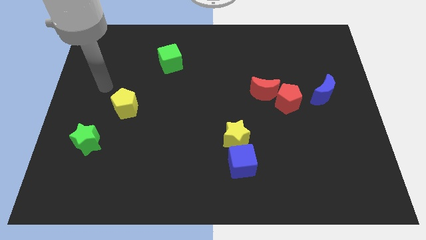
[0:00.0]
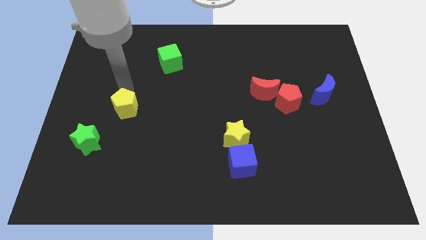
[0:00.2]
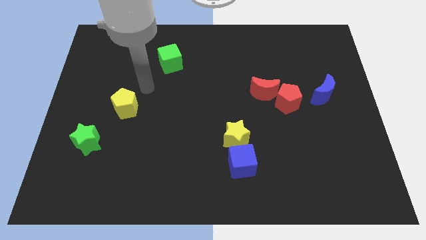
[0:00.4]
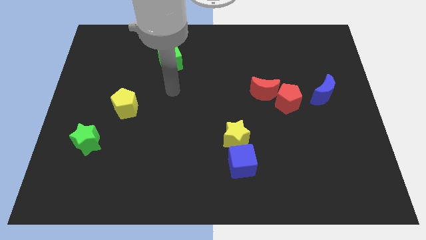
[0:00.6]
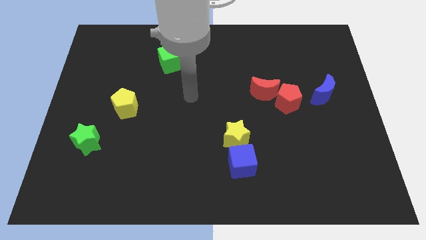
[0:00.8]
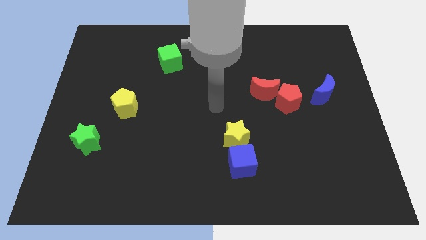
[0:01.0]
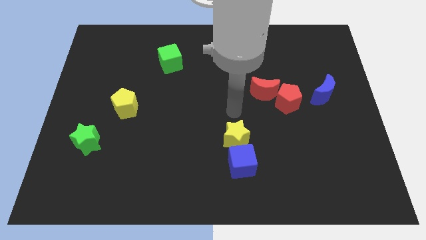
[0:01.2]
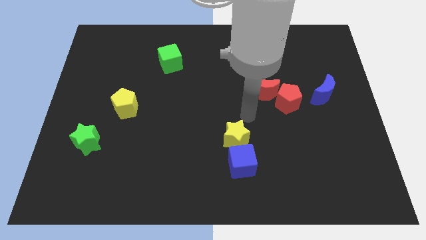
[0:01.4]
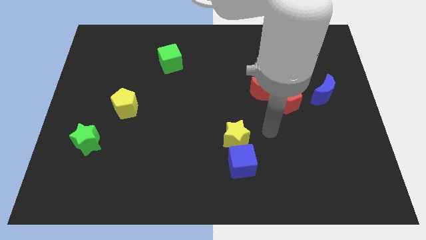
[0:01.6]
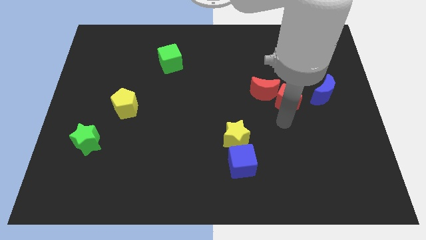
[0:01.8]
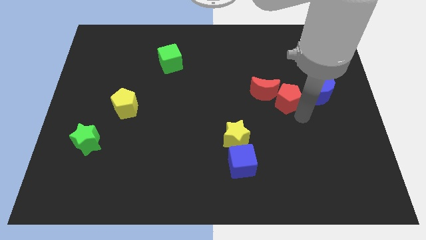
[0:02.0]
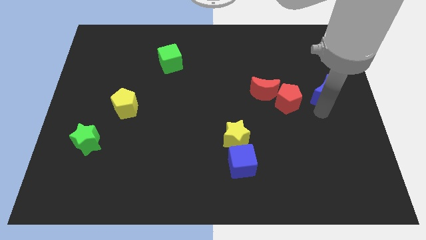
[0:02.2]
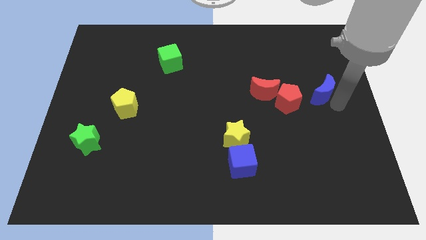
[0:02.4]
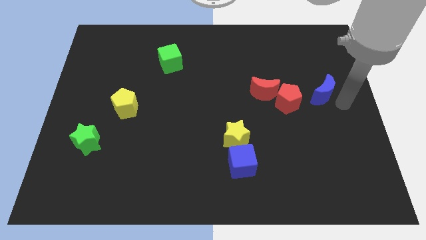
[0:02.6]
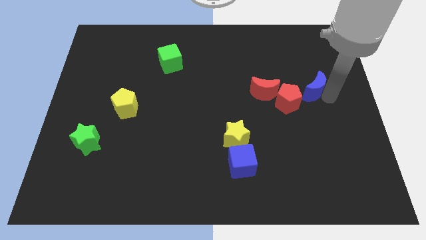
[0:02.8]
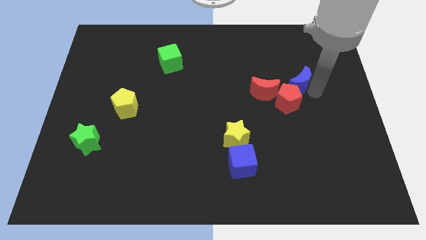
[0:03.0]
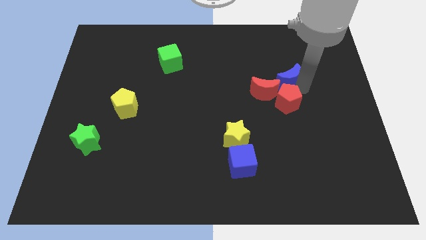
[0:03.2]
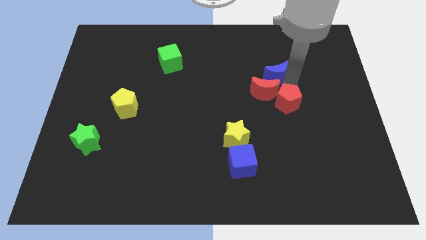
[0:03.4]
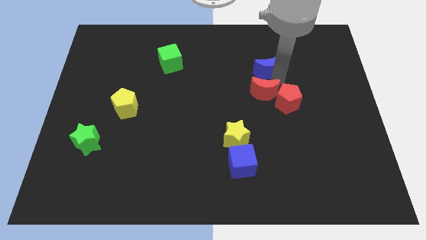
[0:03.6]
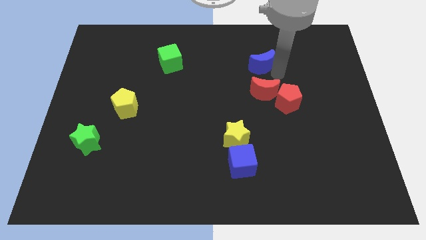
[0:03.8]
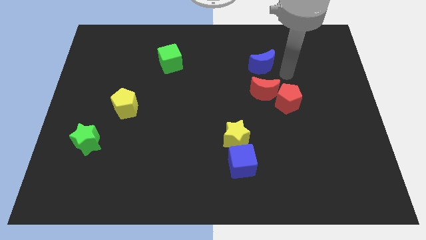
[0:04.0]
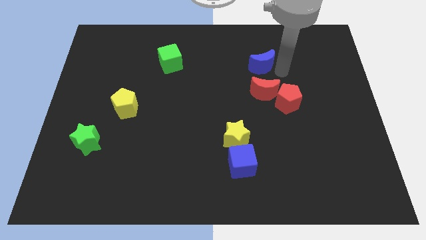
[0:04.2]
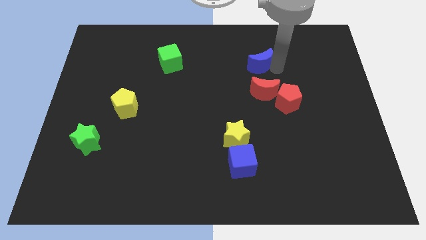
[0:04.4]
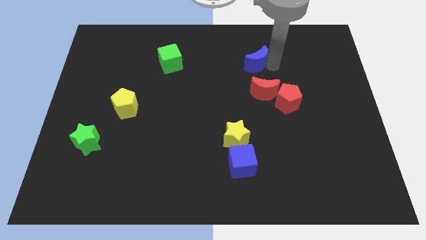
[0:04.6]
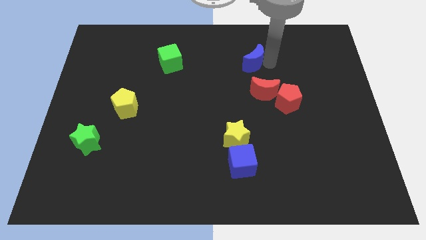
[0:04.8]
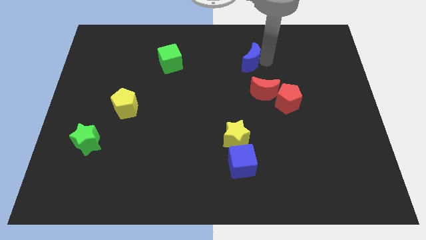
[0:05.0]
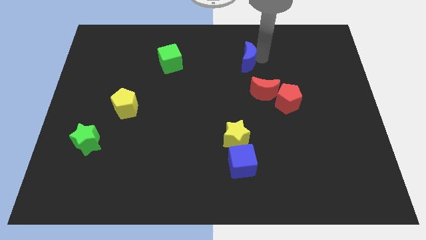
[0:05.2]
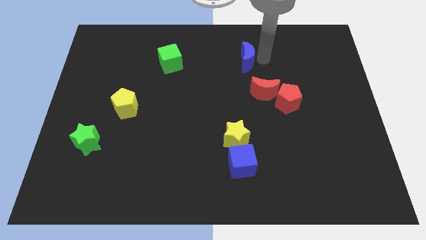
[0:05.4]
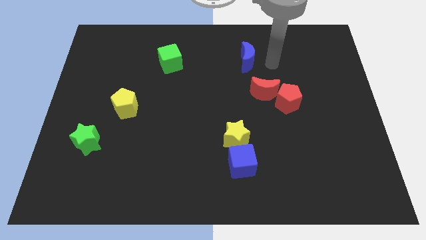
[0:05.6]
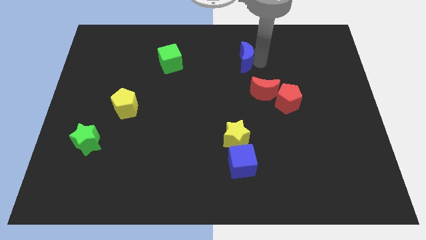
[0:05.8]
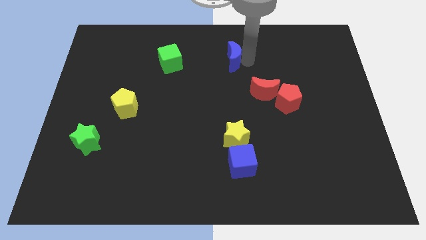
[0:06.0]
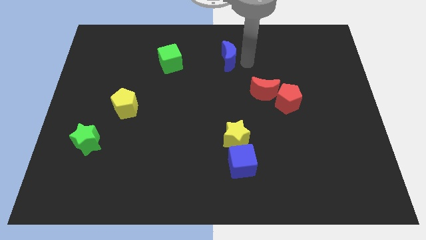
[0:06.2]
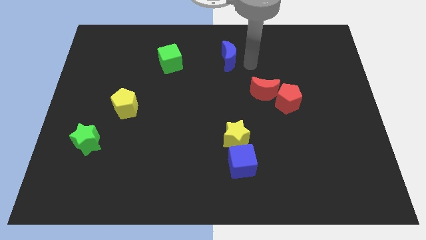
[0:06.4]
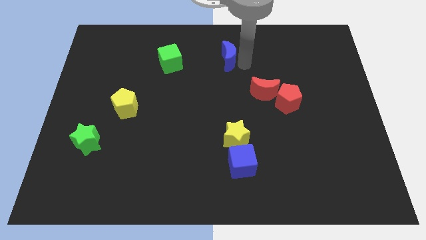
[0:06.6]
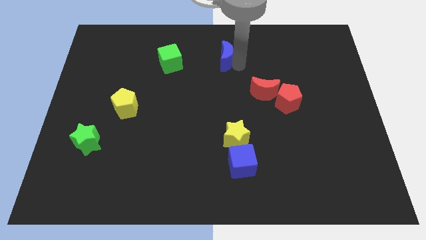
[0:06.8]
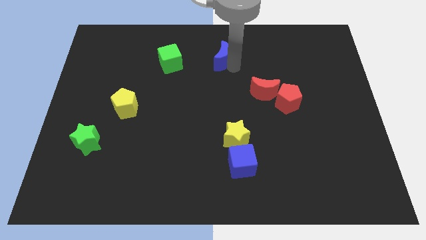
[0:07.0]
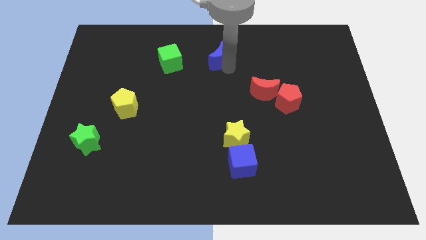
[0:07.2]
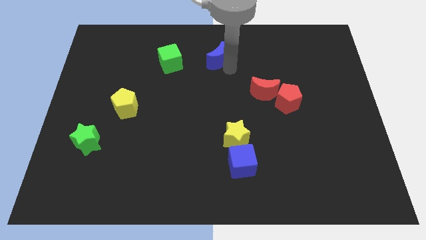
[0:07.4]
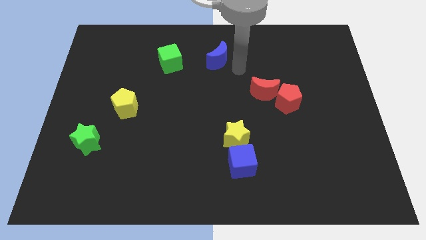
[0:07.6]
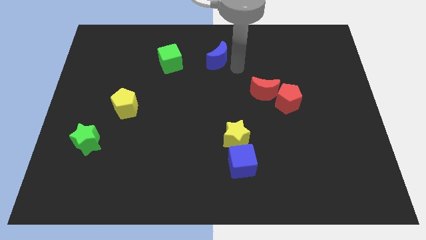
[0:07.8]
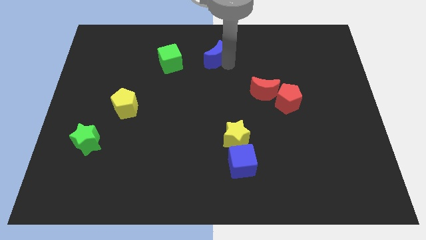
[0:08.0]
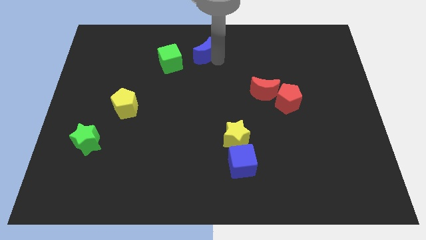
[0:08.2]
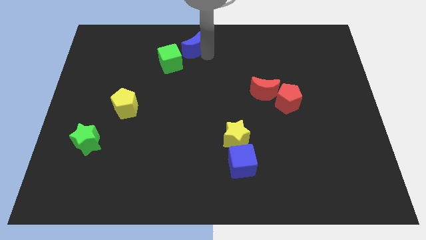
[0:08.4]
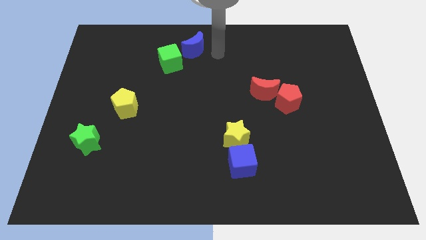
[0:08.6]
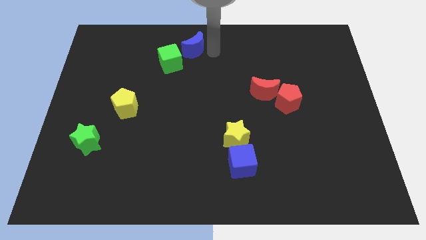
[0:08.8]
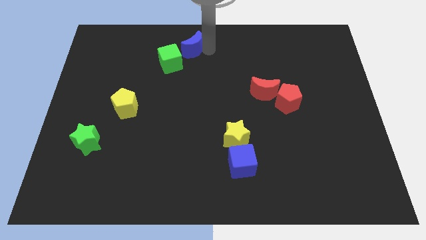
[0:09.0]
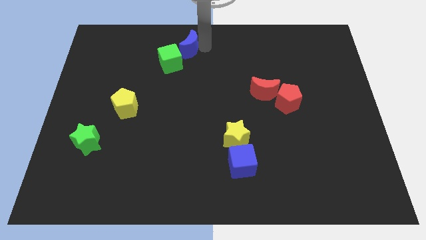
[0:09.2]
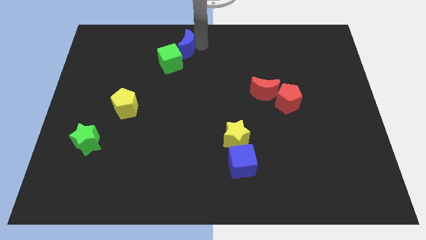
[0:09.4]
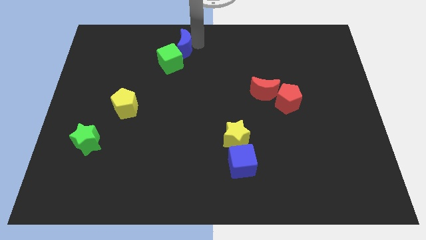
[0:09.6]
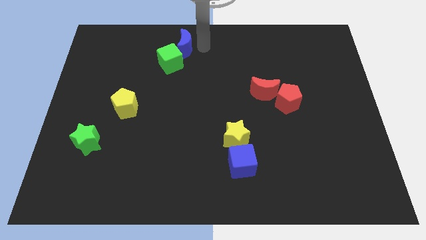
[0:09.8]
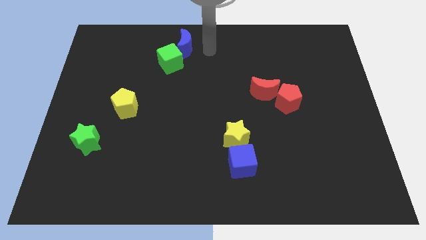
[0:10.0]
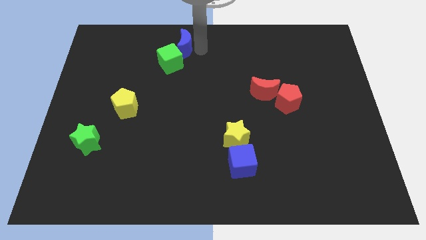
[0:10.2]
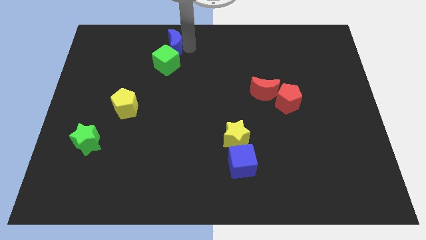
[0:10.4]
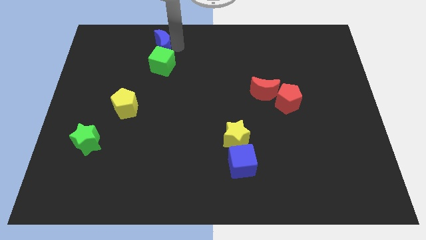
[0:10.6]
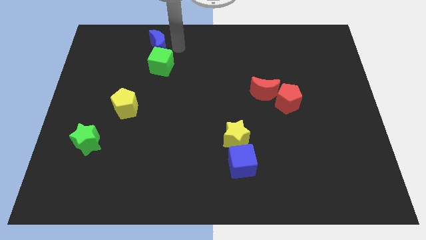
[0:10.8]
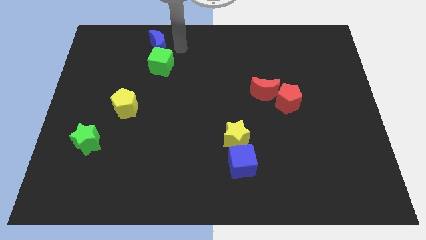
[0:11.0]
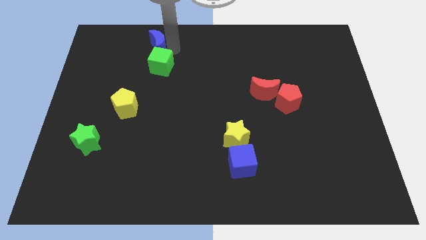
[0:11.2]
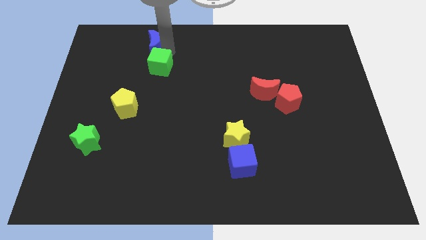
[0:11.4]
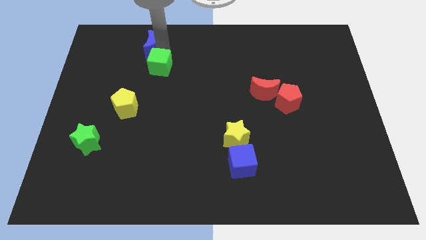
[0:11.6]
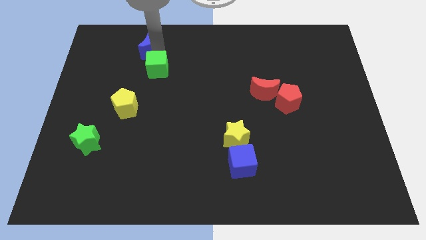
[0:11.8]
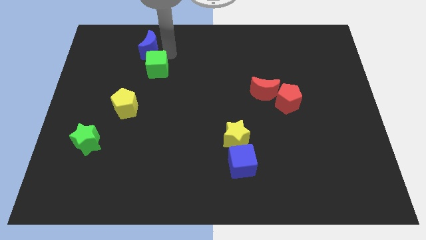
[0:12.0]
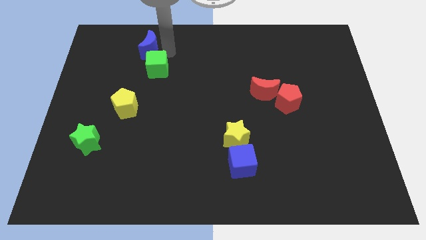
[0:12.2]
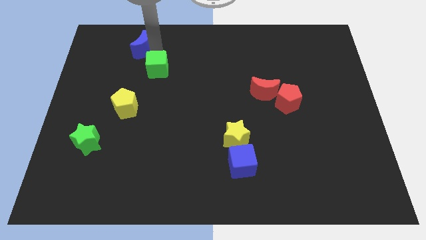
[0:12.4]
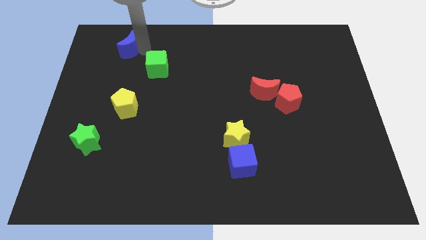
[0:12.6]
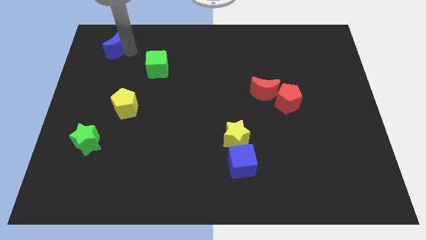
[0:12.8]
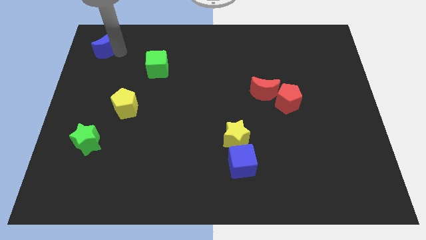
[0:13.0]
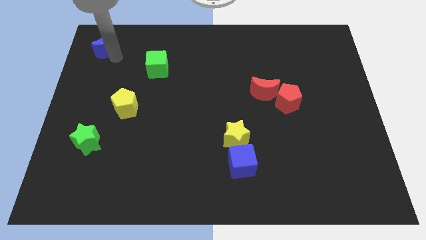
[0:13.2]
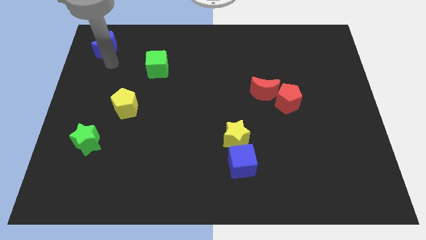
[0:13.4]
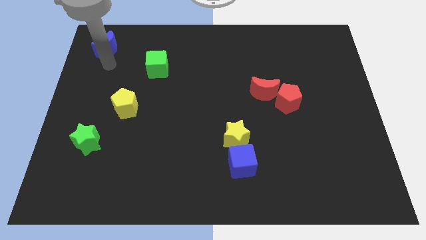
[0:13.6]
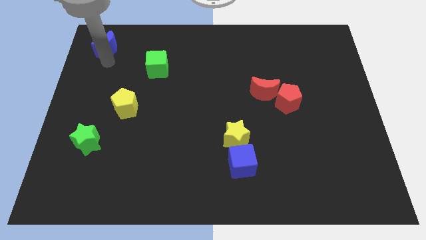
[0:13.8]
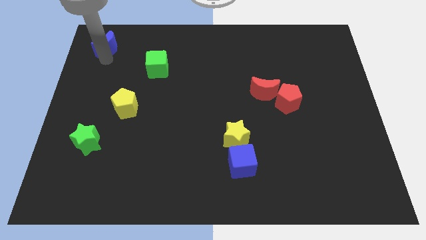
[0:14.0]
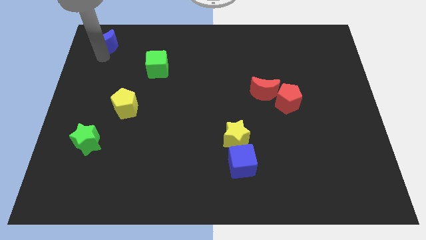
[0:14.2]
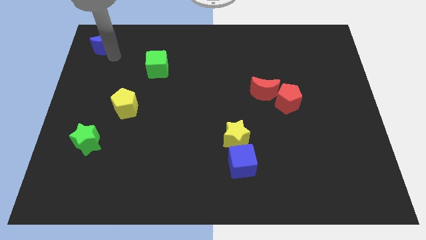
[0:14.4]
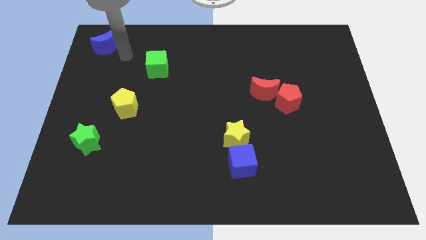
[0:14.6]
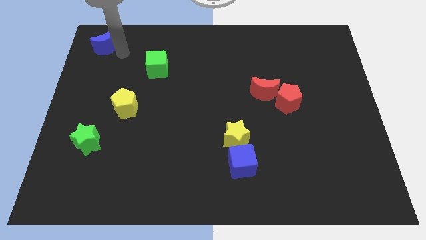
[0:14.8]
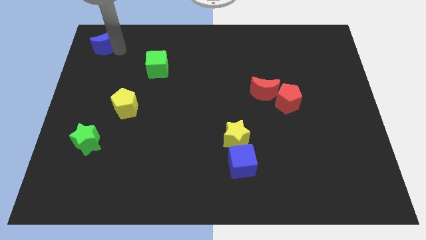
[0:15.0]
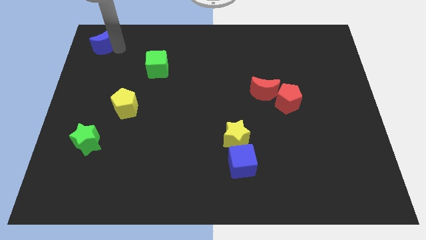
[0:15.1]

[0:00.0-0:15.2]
push the blue moon to the upper left corner
